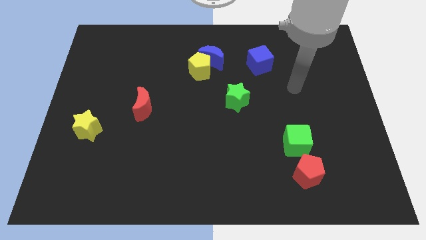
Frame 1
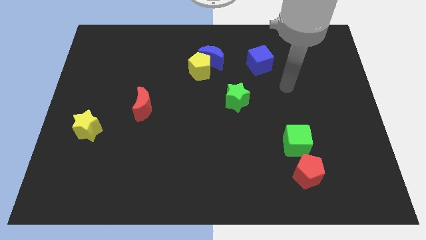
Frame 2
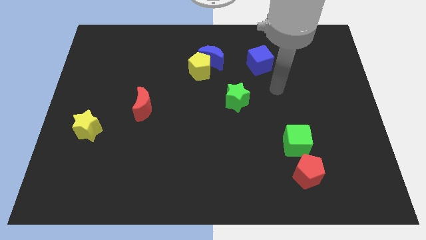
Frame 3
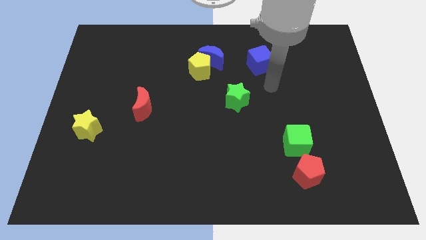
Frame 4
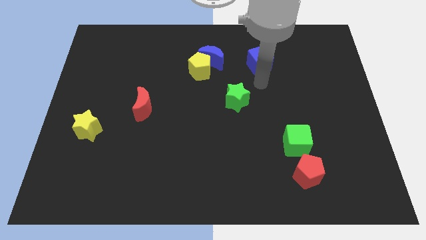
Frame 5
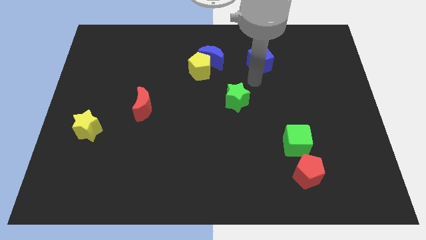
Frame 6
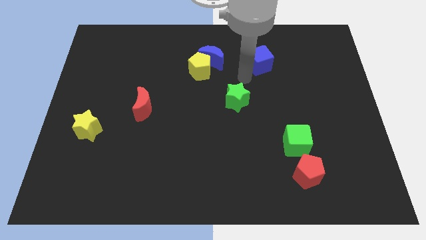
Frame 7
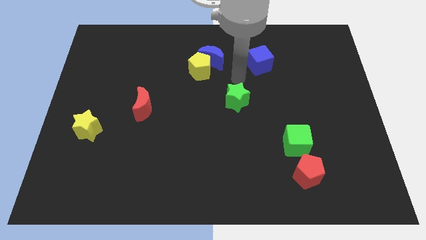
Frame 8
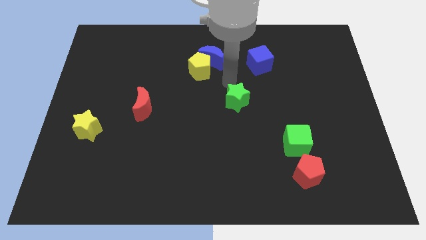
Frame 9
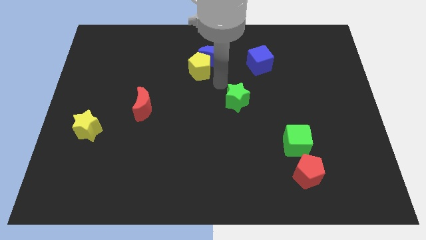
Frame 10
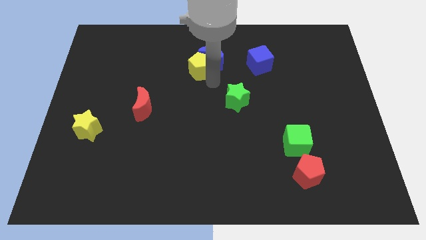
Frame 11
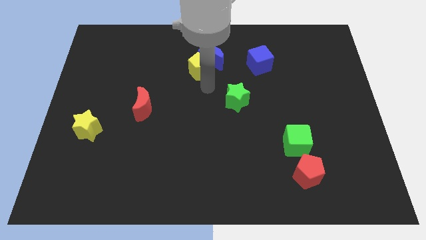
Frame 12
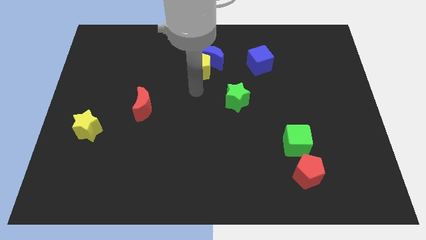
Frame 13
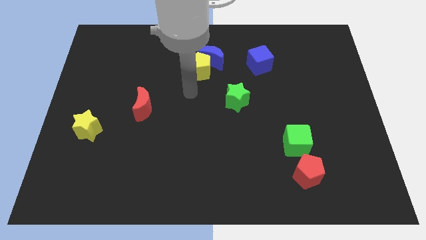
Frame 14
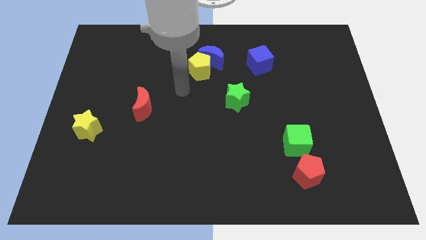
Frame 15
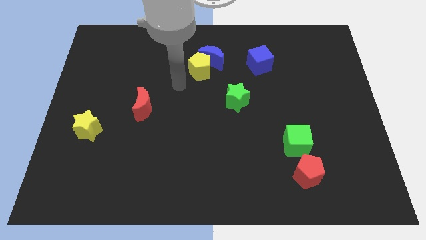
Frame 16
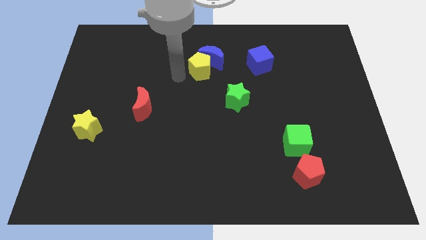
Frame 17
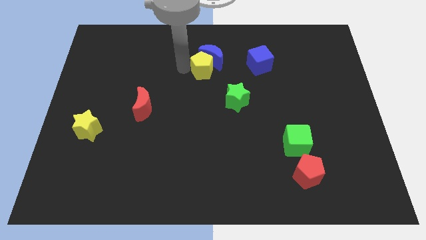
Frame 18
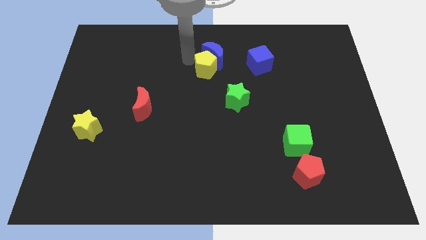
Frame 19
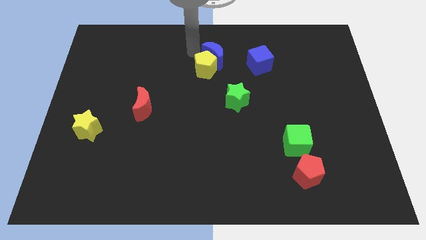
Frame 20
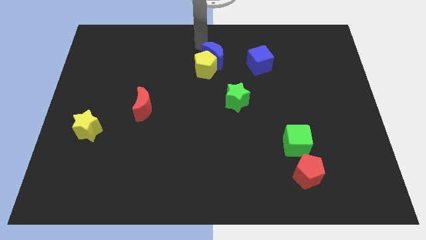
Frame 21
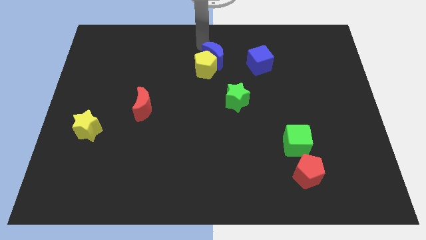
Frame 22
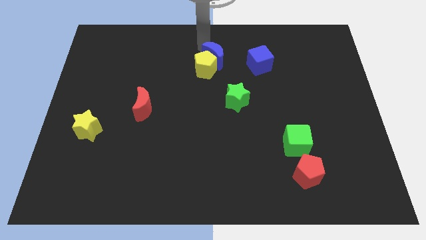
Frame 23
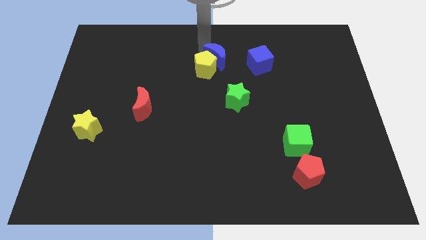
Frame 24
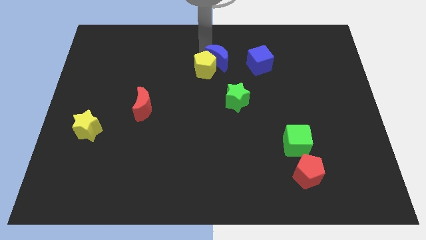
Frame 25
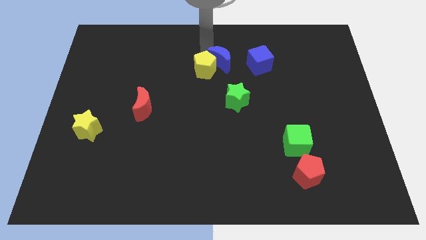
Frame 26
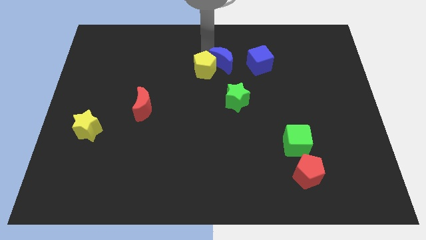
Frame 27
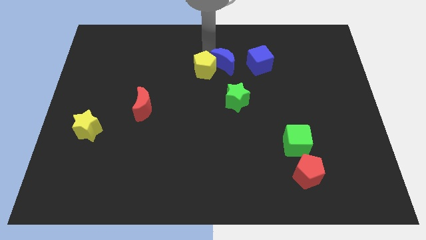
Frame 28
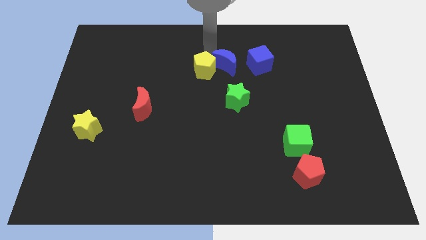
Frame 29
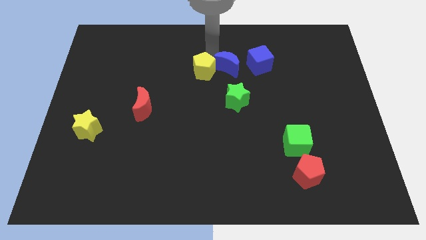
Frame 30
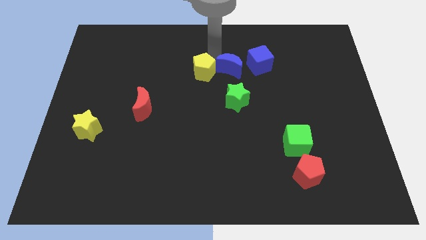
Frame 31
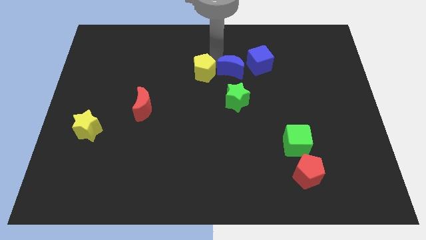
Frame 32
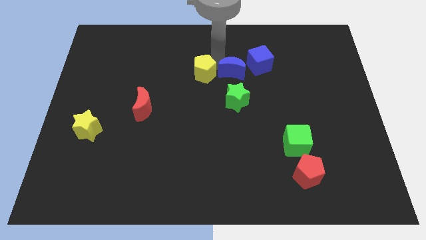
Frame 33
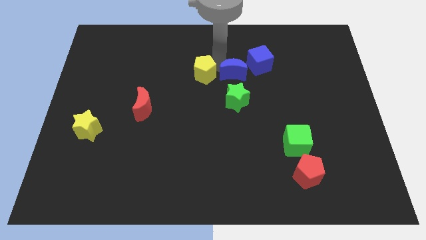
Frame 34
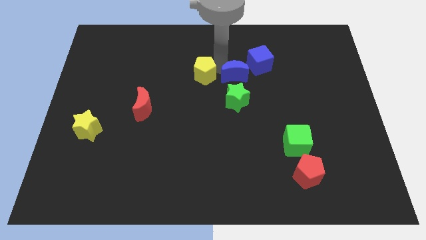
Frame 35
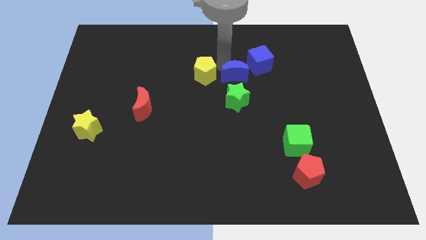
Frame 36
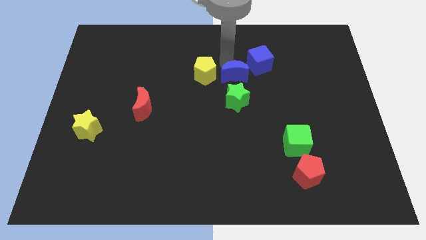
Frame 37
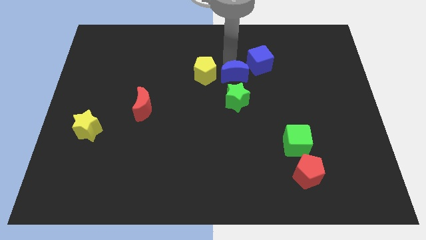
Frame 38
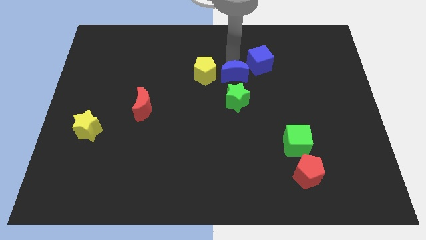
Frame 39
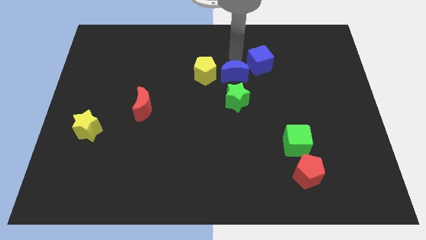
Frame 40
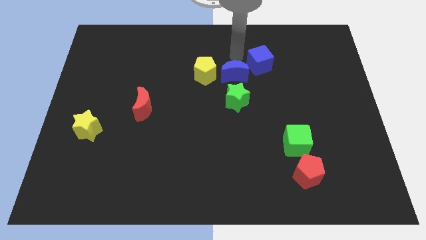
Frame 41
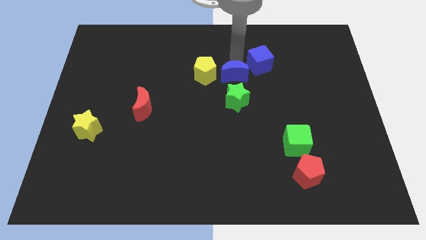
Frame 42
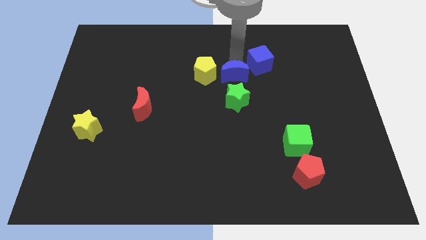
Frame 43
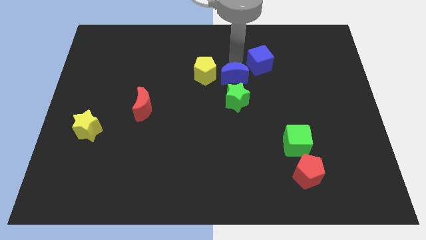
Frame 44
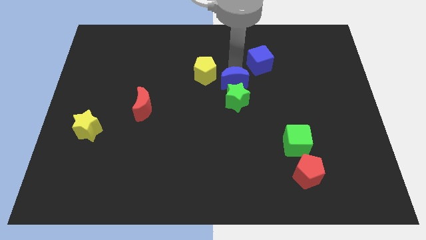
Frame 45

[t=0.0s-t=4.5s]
slide the blue moon next to the green star

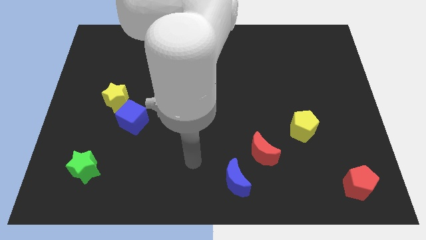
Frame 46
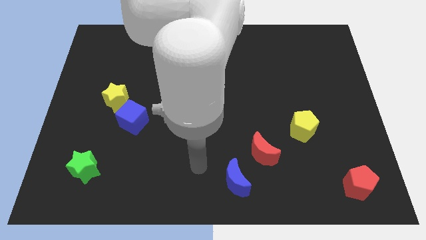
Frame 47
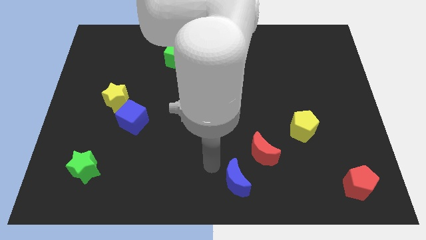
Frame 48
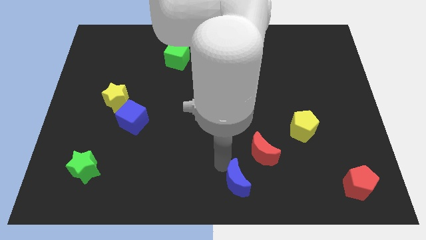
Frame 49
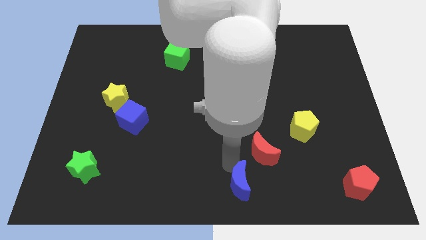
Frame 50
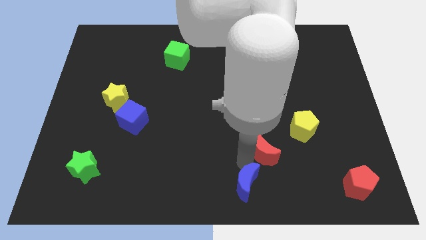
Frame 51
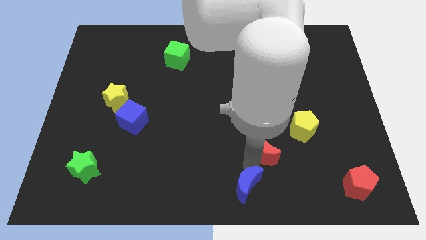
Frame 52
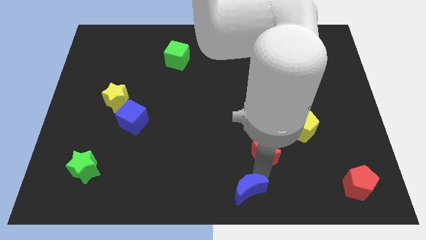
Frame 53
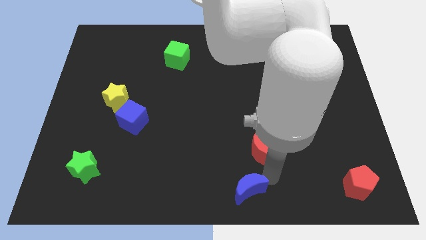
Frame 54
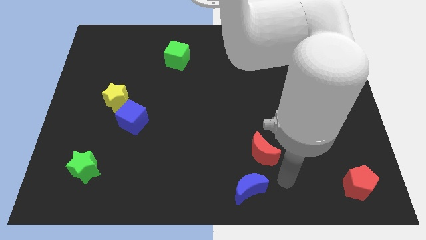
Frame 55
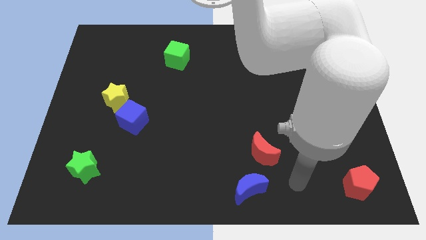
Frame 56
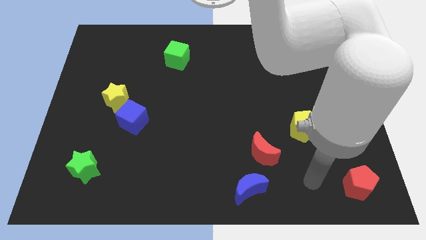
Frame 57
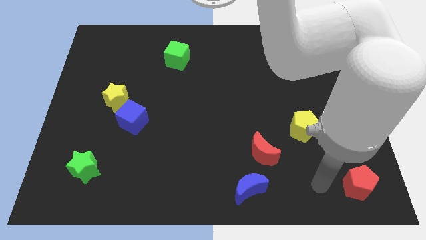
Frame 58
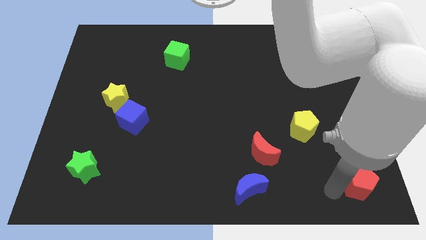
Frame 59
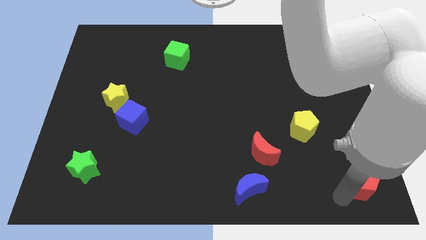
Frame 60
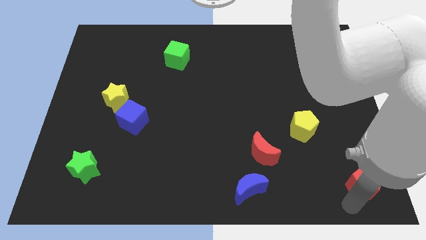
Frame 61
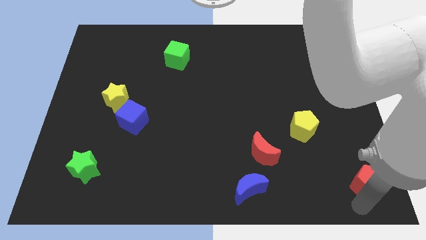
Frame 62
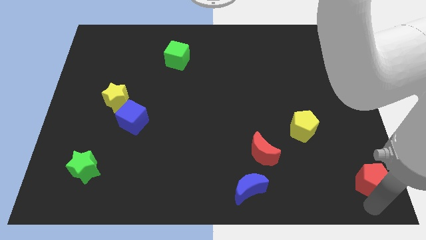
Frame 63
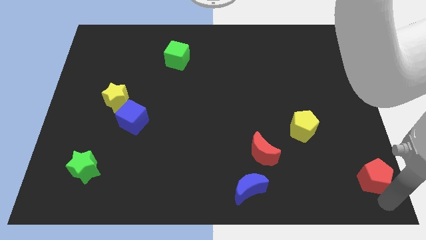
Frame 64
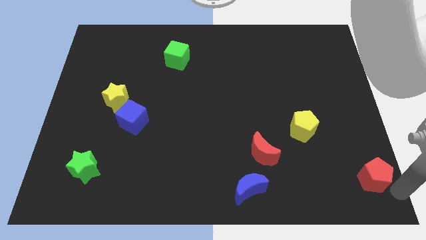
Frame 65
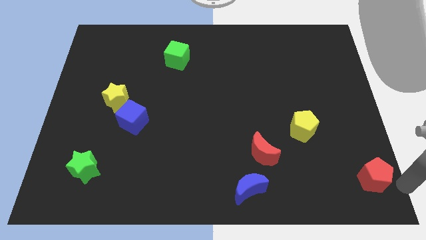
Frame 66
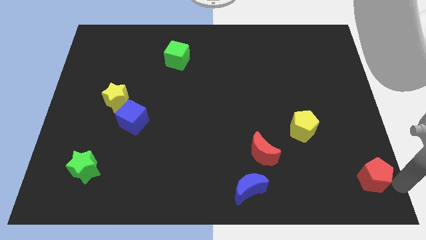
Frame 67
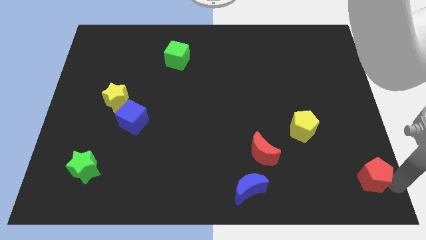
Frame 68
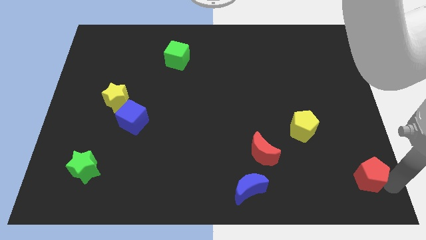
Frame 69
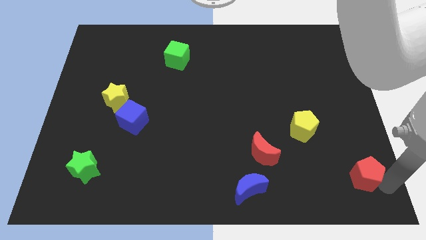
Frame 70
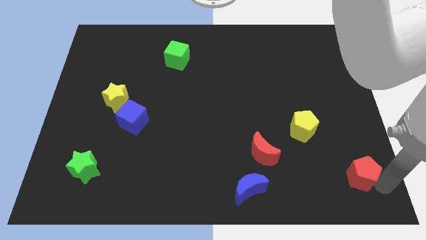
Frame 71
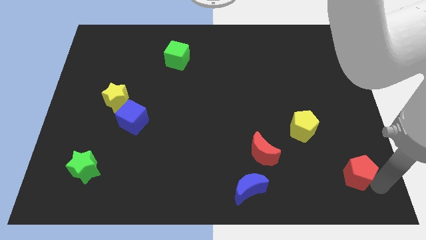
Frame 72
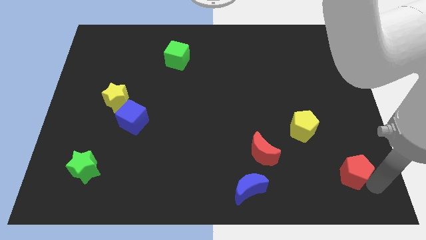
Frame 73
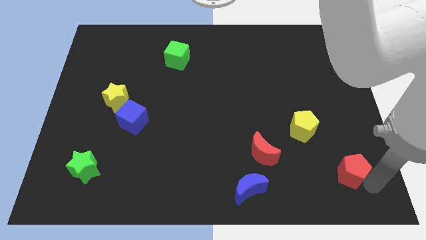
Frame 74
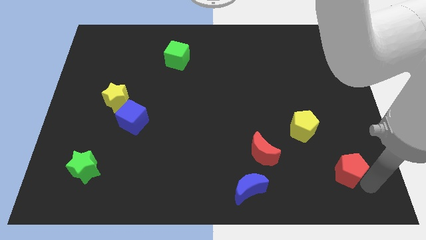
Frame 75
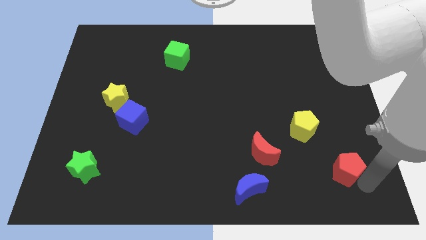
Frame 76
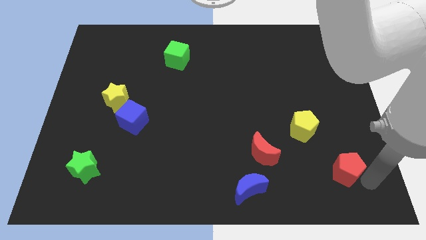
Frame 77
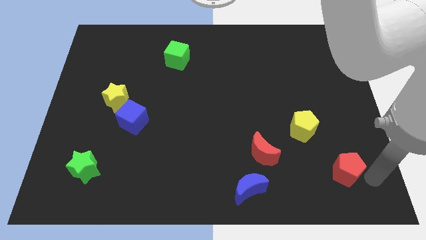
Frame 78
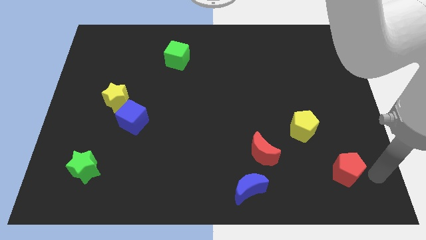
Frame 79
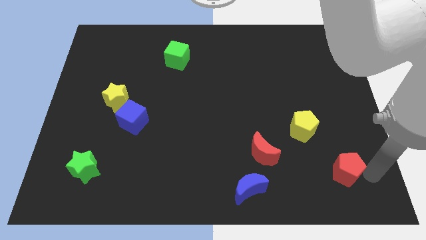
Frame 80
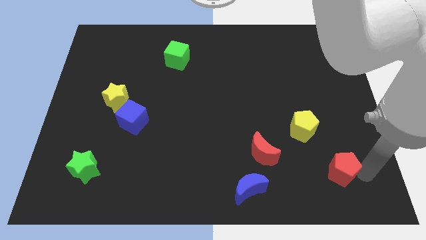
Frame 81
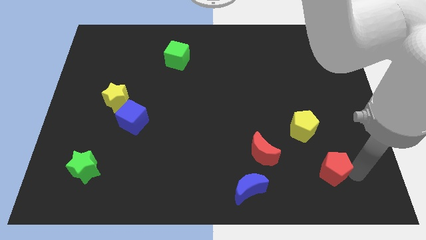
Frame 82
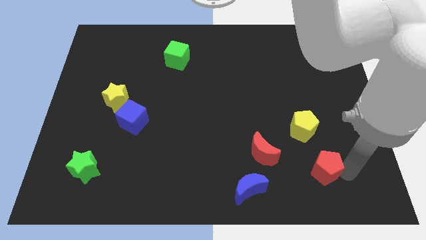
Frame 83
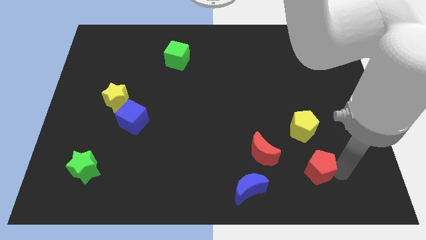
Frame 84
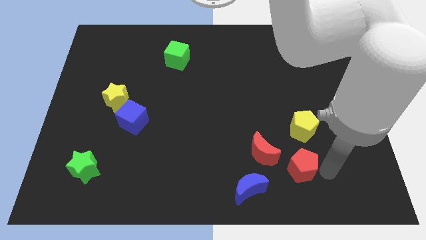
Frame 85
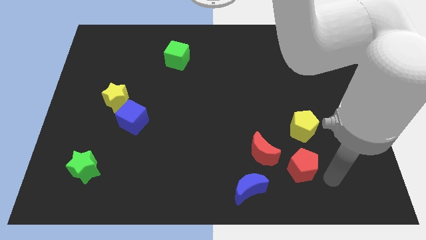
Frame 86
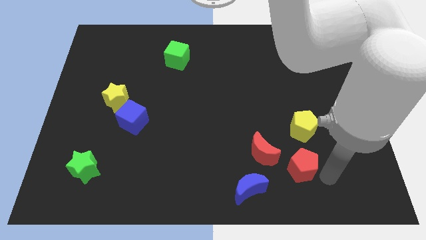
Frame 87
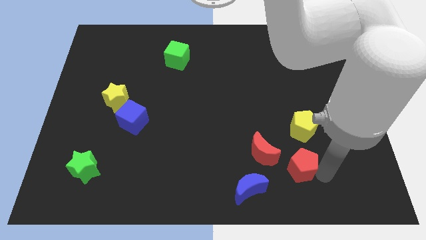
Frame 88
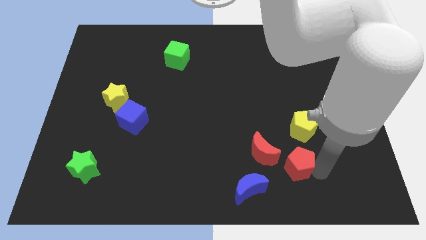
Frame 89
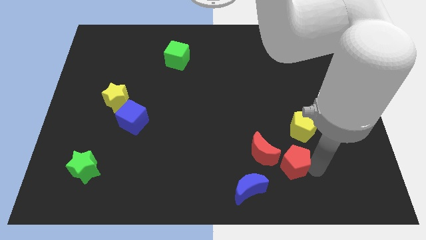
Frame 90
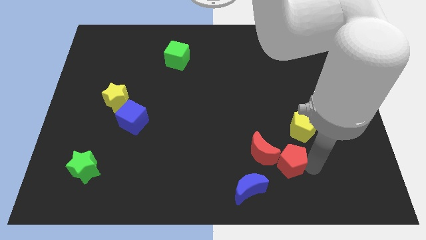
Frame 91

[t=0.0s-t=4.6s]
push the red pentagon next to the red moon
